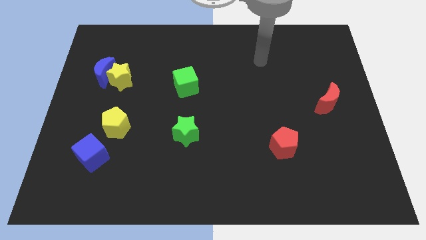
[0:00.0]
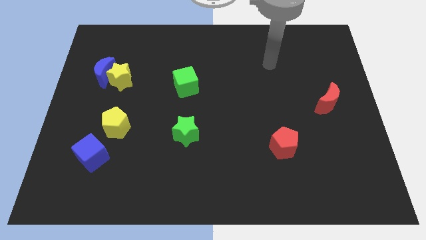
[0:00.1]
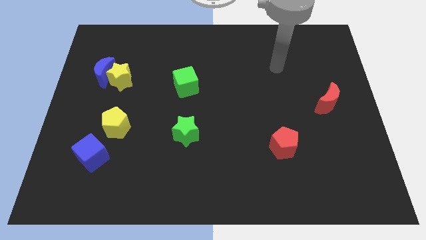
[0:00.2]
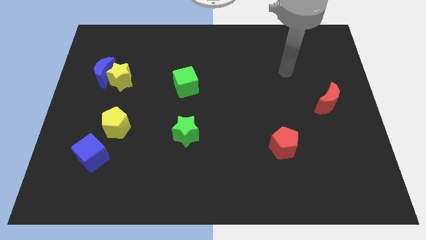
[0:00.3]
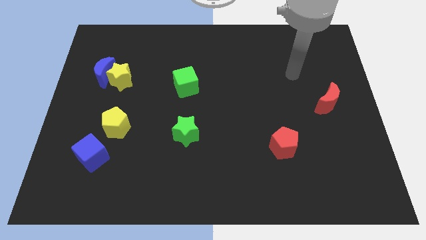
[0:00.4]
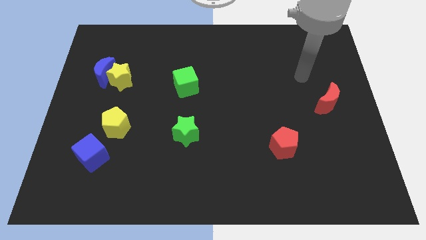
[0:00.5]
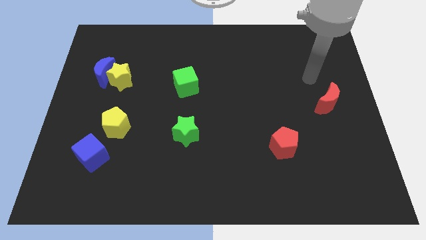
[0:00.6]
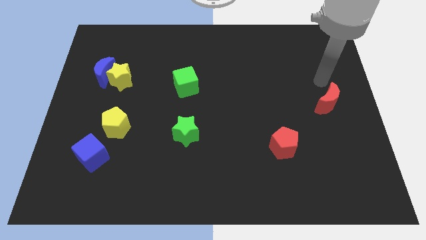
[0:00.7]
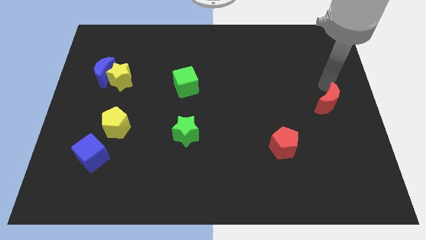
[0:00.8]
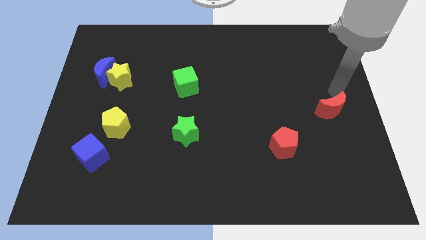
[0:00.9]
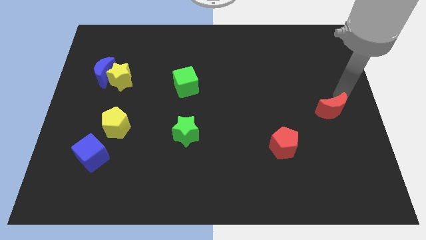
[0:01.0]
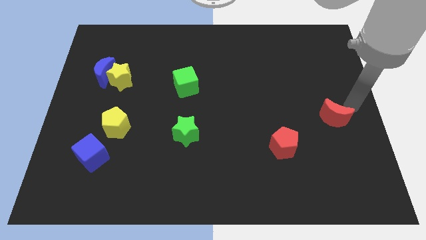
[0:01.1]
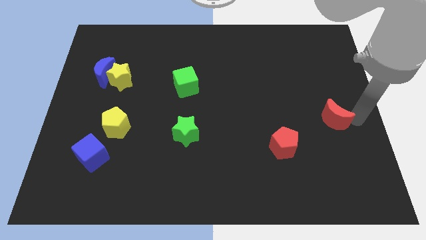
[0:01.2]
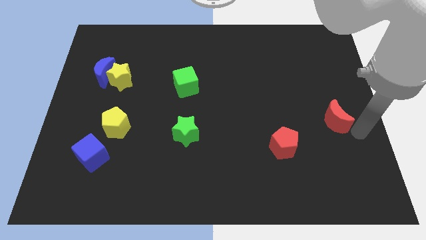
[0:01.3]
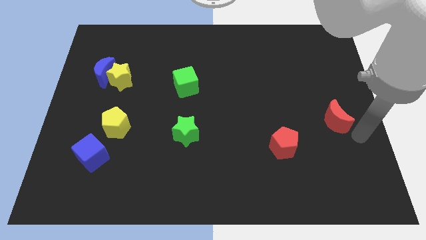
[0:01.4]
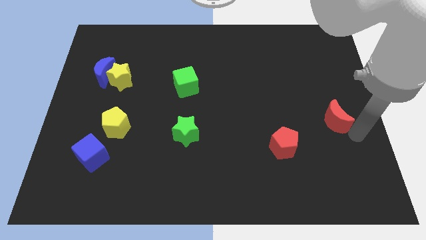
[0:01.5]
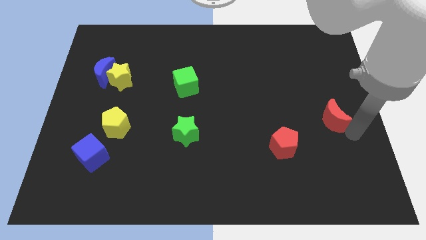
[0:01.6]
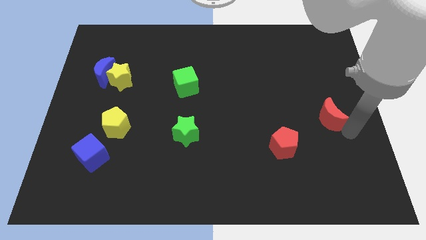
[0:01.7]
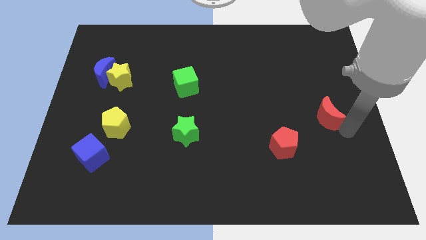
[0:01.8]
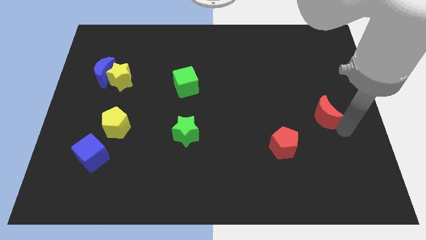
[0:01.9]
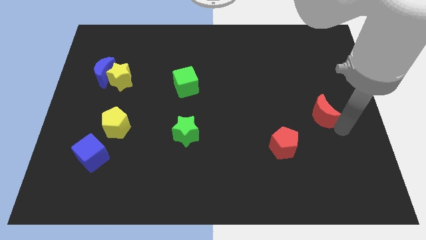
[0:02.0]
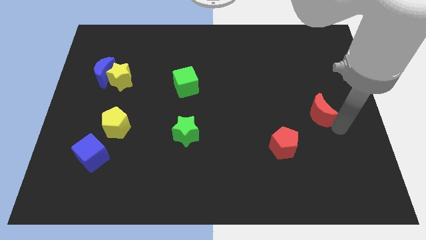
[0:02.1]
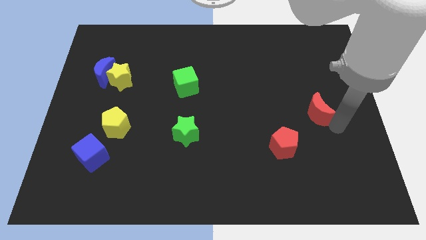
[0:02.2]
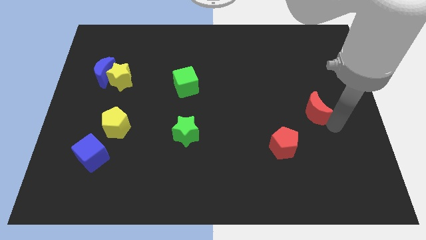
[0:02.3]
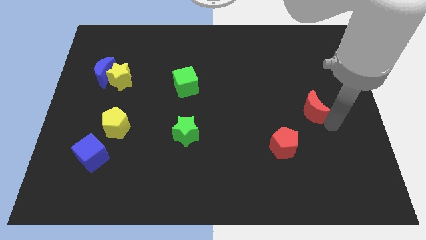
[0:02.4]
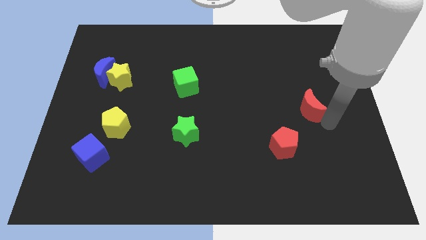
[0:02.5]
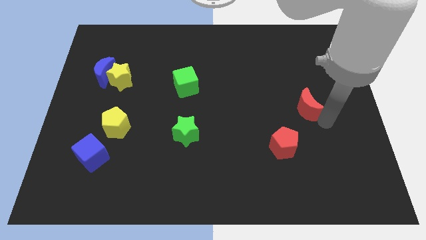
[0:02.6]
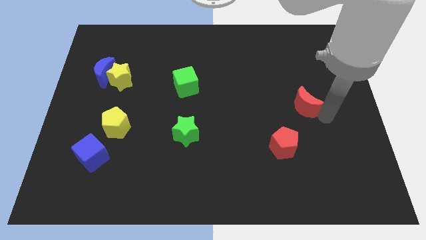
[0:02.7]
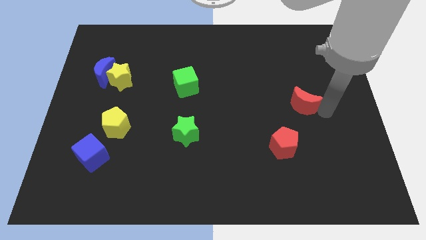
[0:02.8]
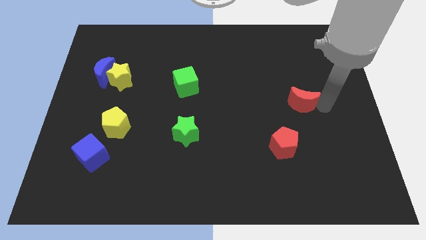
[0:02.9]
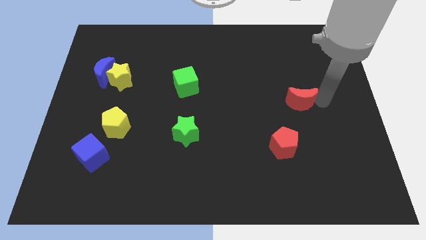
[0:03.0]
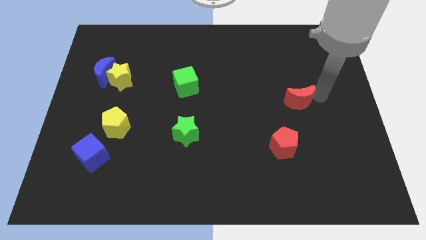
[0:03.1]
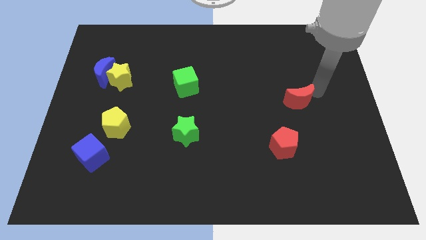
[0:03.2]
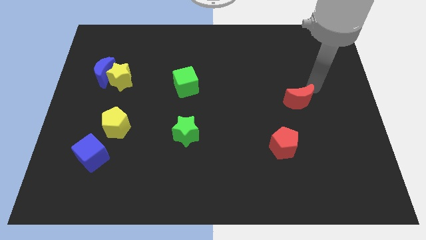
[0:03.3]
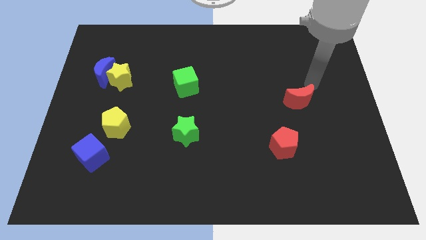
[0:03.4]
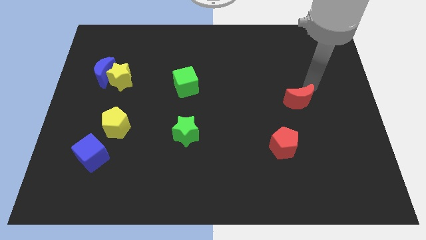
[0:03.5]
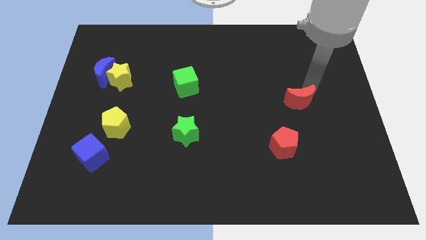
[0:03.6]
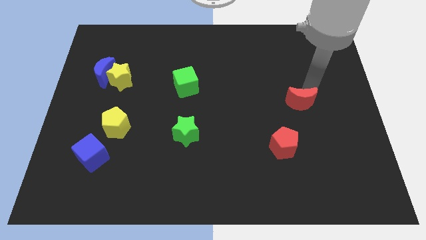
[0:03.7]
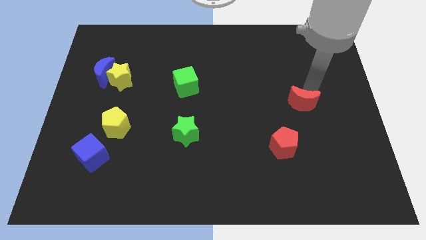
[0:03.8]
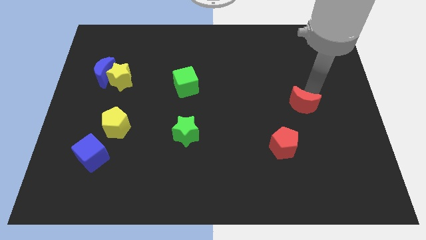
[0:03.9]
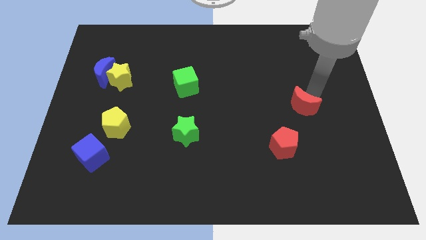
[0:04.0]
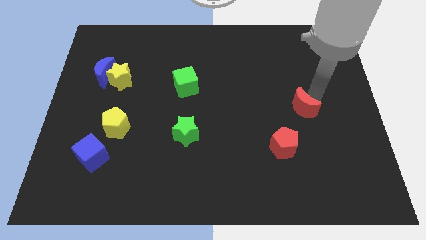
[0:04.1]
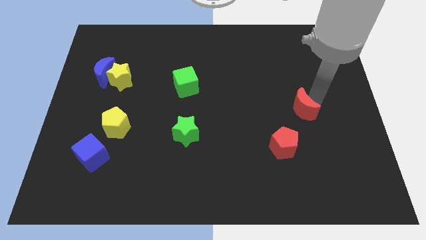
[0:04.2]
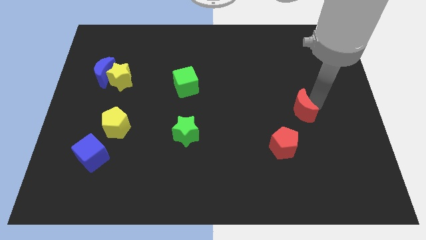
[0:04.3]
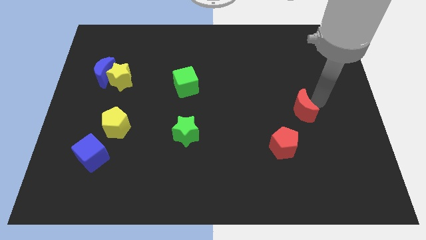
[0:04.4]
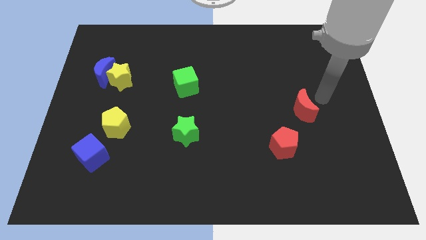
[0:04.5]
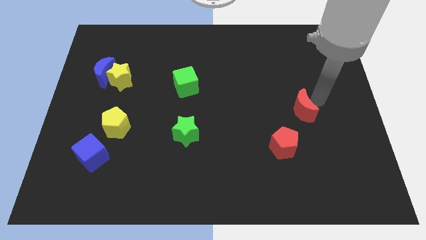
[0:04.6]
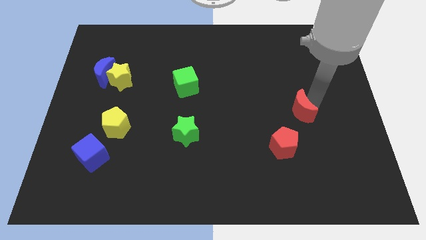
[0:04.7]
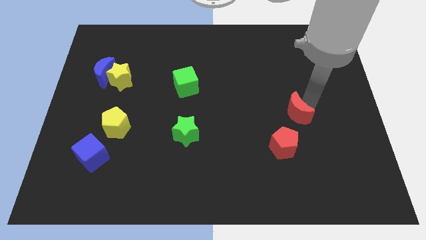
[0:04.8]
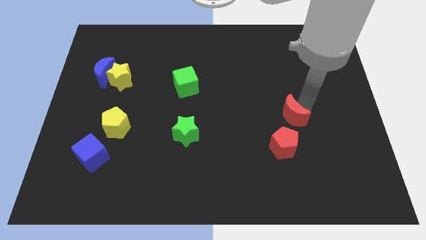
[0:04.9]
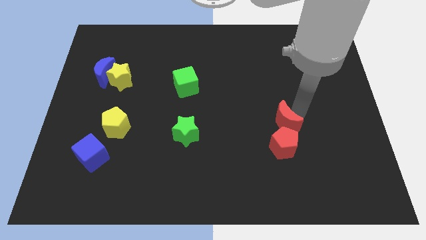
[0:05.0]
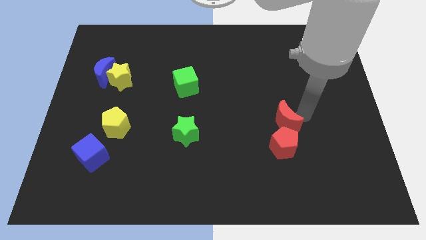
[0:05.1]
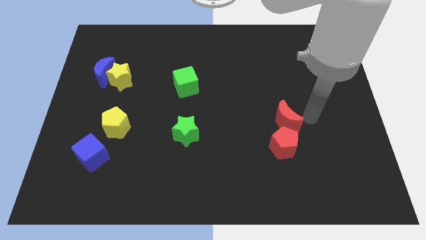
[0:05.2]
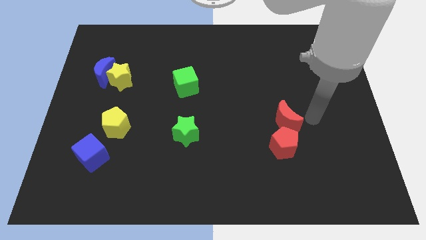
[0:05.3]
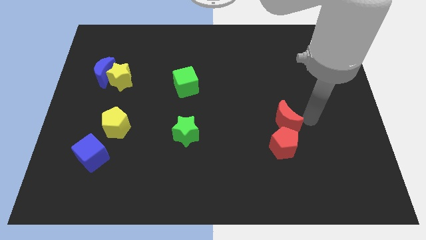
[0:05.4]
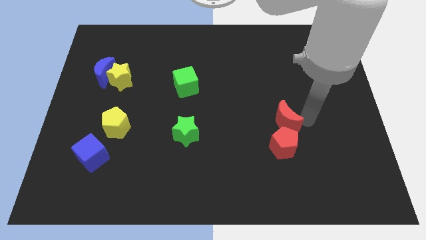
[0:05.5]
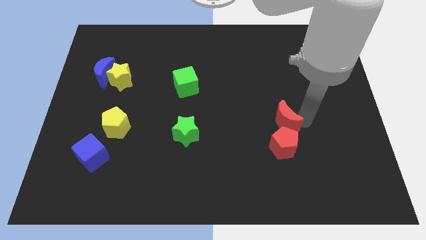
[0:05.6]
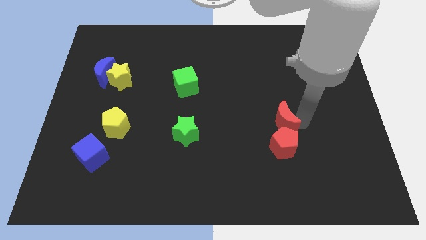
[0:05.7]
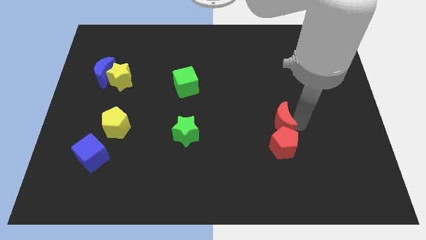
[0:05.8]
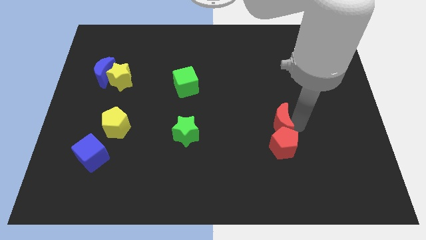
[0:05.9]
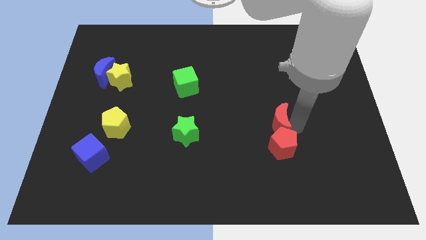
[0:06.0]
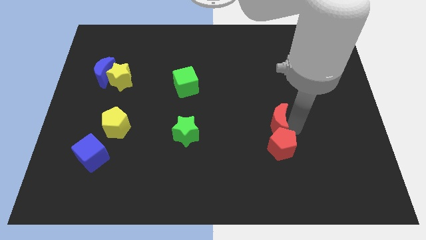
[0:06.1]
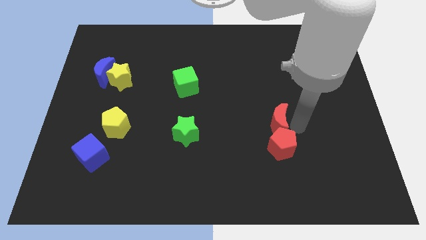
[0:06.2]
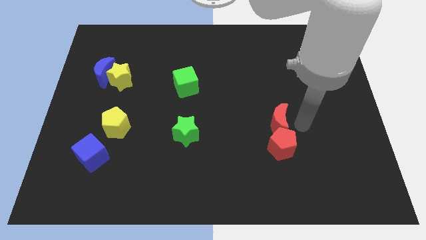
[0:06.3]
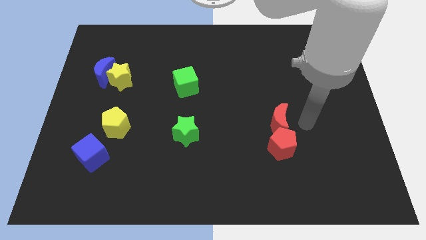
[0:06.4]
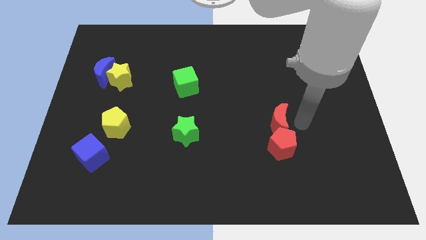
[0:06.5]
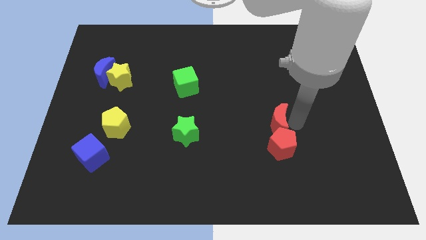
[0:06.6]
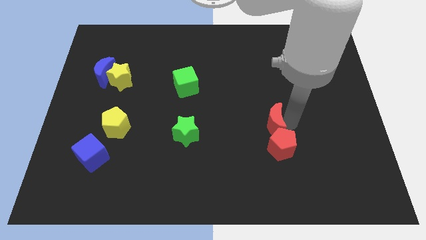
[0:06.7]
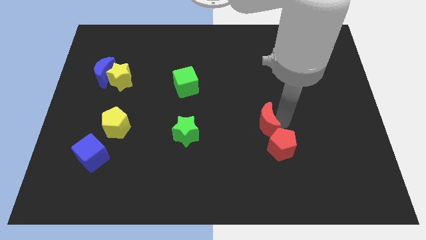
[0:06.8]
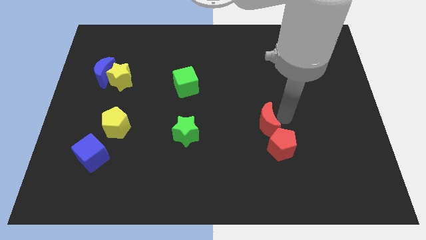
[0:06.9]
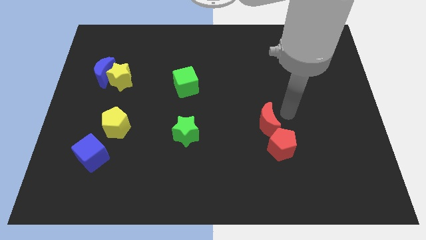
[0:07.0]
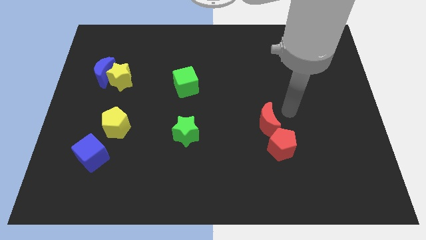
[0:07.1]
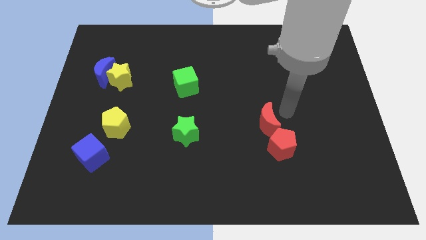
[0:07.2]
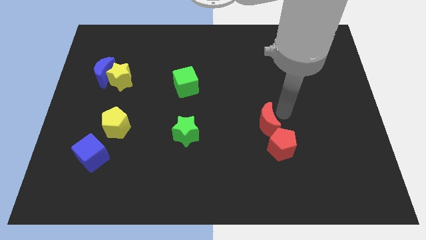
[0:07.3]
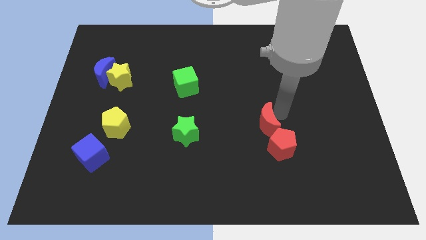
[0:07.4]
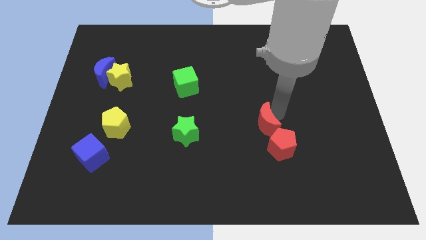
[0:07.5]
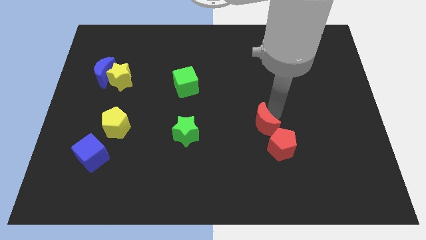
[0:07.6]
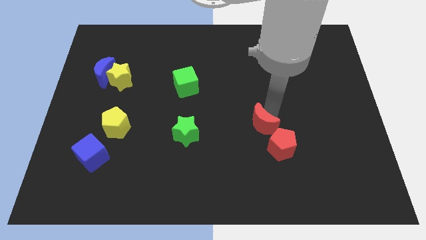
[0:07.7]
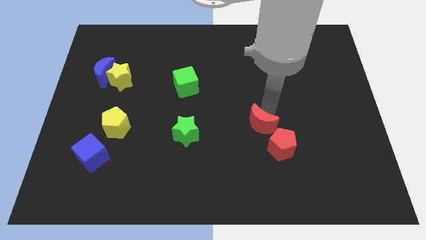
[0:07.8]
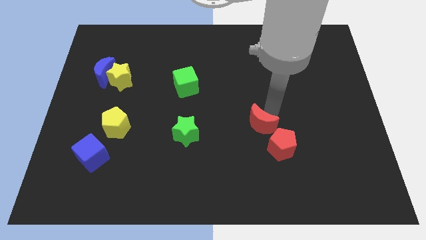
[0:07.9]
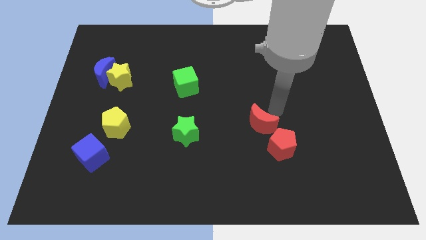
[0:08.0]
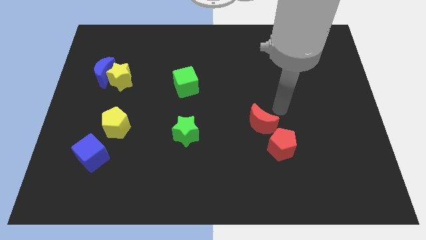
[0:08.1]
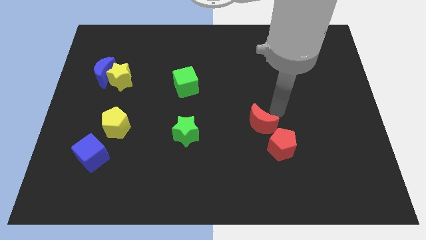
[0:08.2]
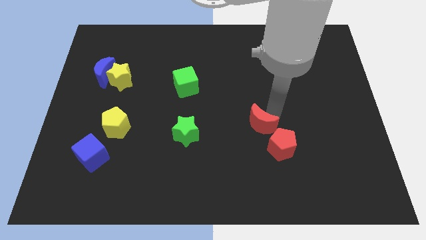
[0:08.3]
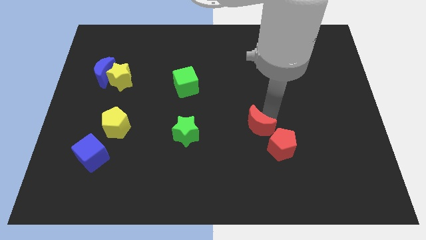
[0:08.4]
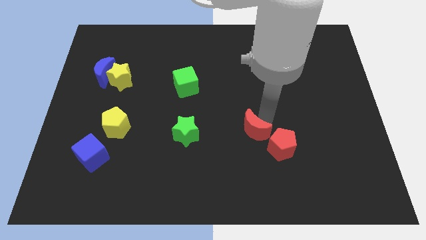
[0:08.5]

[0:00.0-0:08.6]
move the red moon left of the red pentagon
